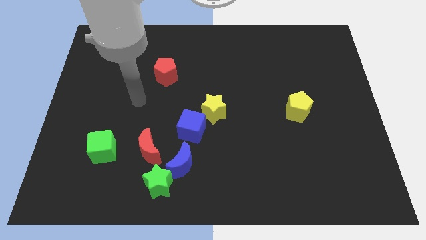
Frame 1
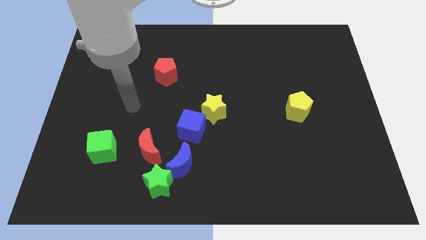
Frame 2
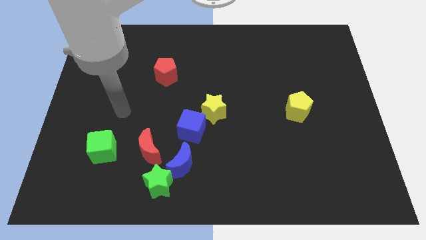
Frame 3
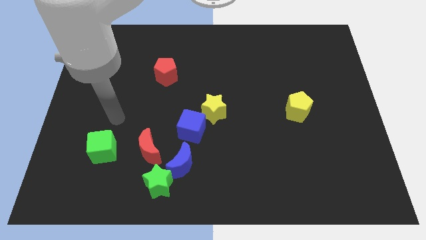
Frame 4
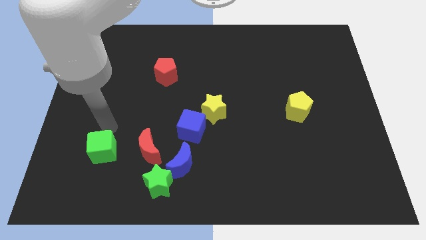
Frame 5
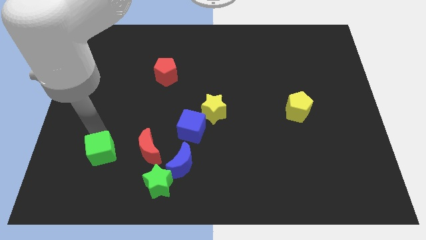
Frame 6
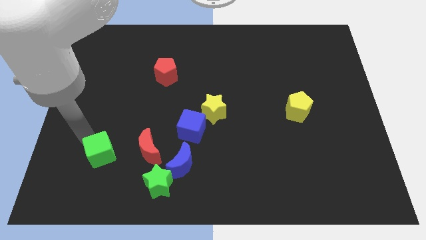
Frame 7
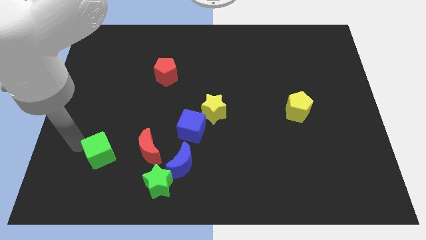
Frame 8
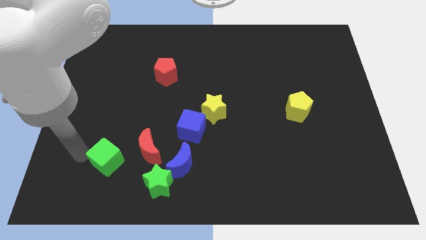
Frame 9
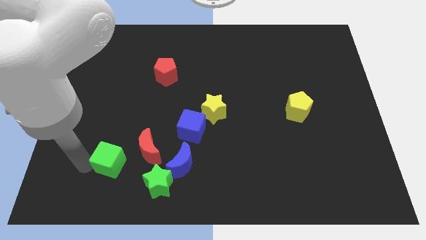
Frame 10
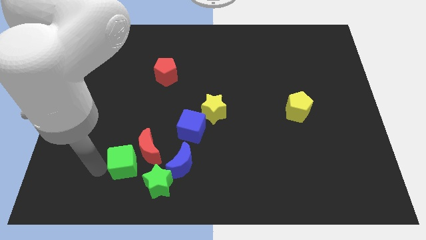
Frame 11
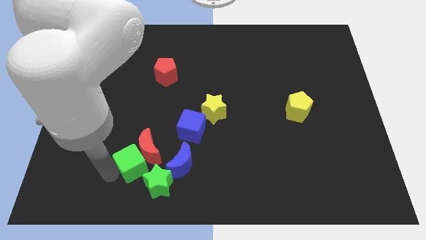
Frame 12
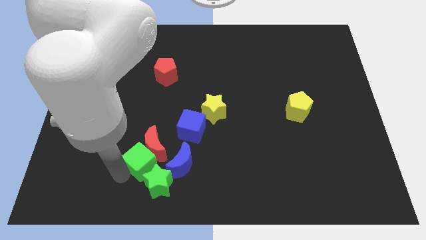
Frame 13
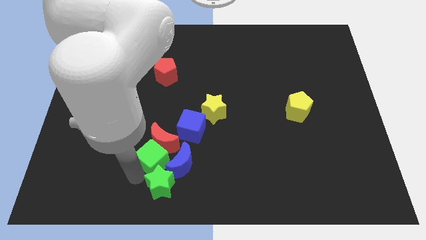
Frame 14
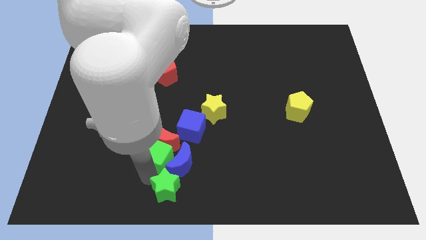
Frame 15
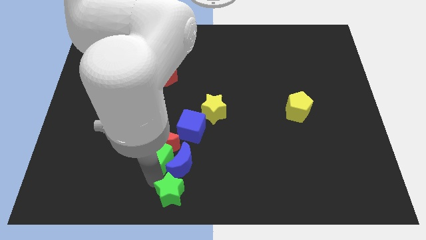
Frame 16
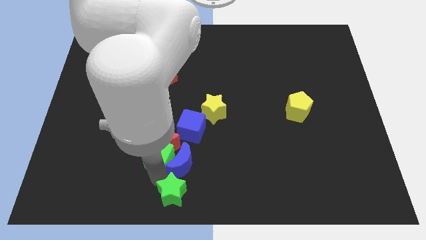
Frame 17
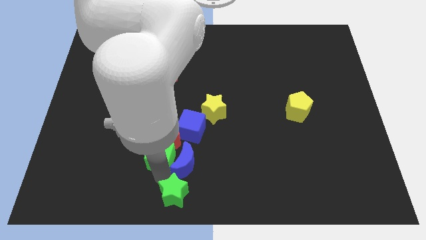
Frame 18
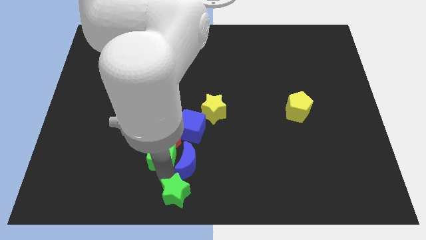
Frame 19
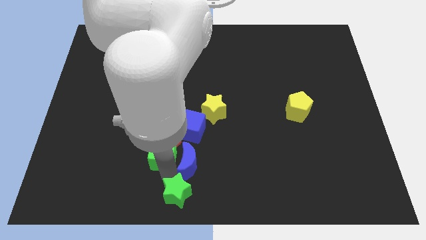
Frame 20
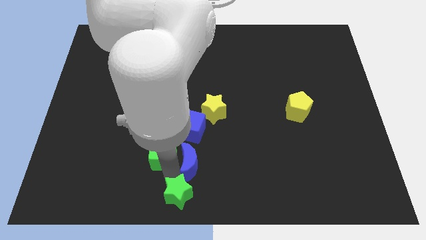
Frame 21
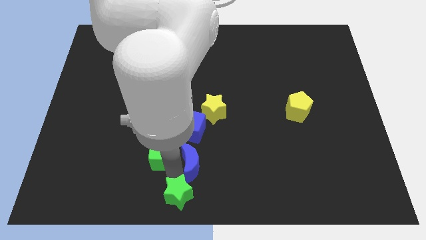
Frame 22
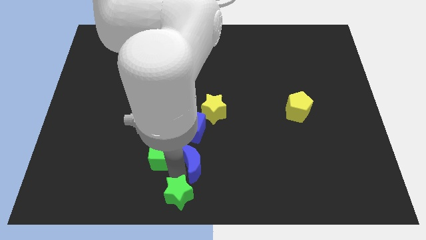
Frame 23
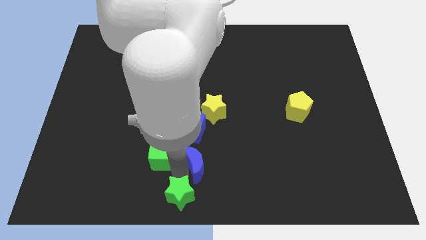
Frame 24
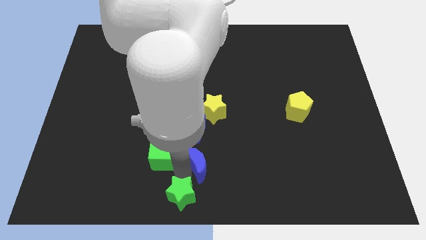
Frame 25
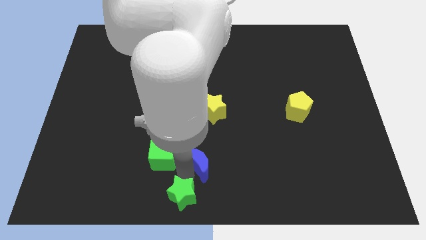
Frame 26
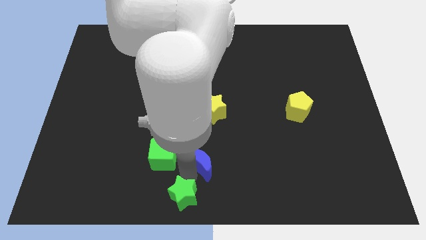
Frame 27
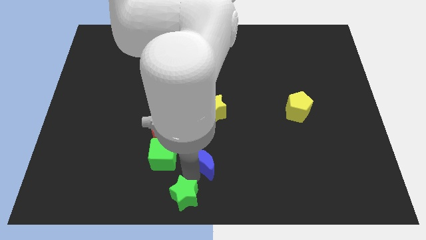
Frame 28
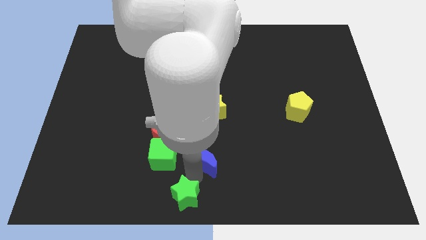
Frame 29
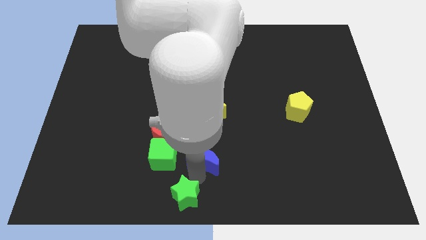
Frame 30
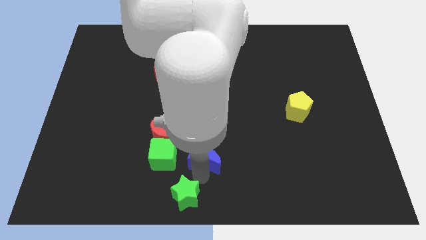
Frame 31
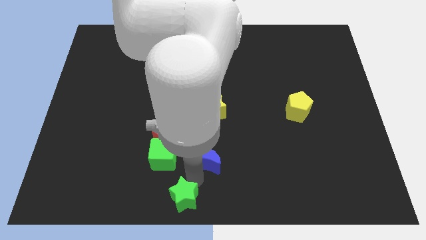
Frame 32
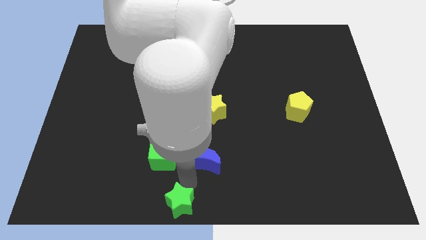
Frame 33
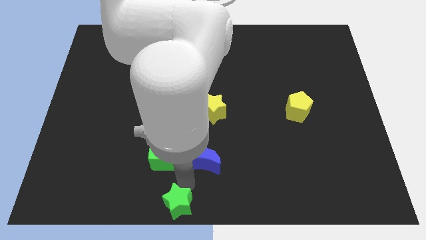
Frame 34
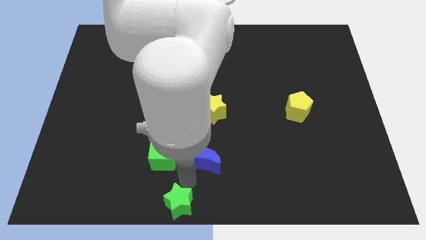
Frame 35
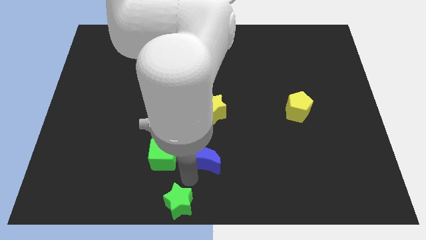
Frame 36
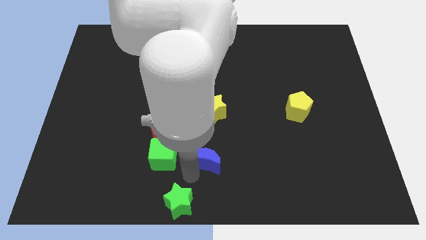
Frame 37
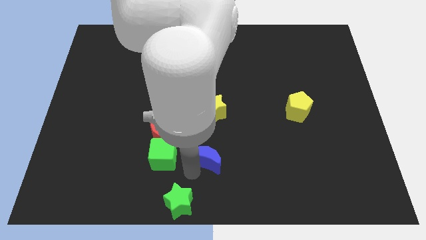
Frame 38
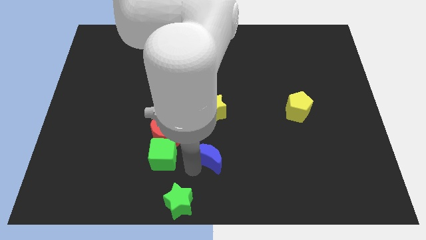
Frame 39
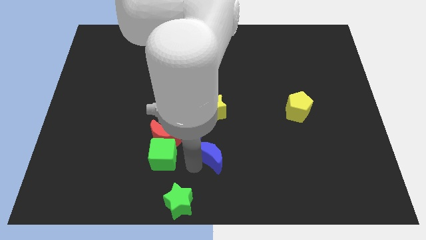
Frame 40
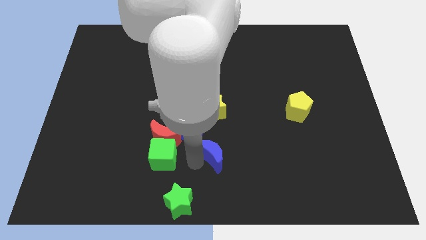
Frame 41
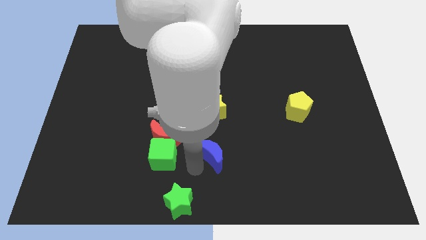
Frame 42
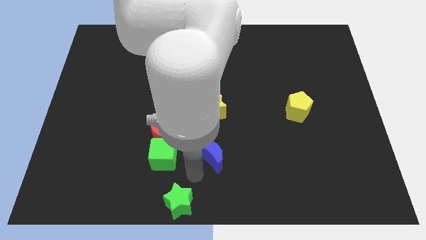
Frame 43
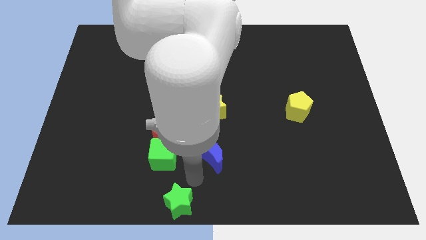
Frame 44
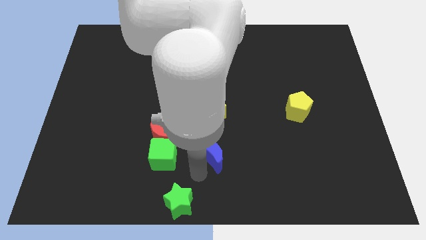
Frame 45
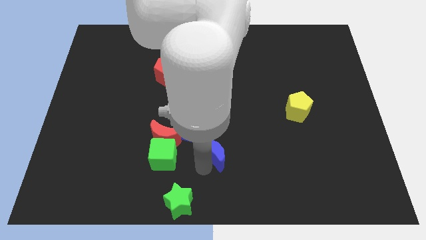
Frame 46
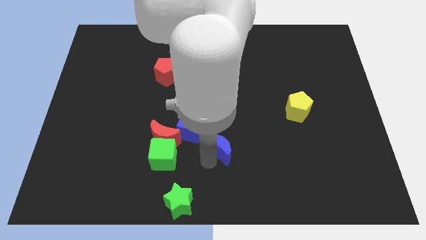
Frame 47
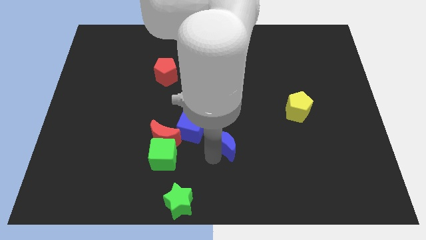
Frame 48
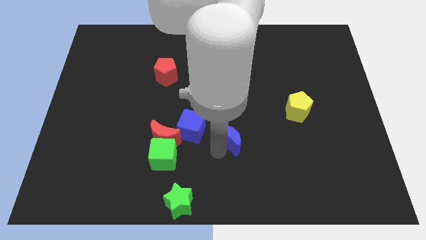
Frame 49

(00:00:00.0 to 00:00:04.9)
move the blue moon to the bottom right of the yellow star

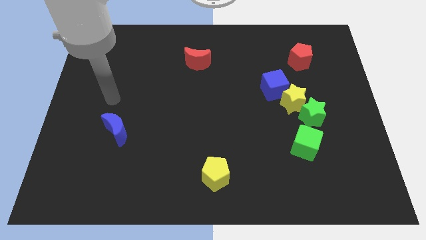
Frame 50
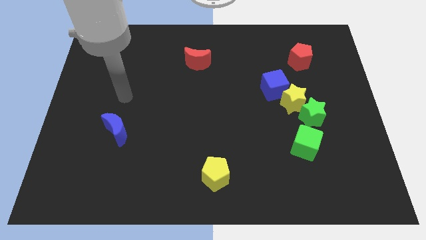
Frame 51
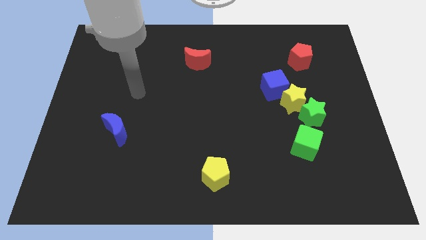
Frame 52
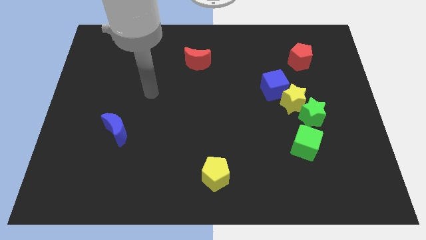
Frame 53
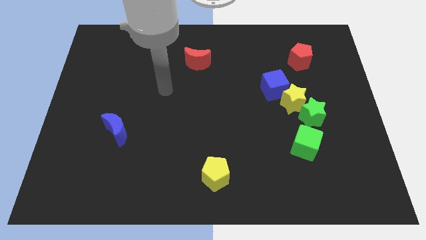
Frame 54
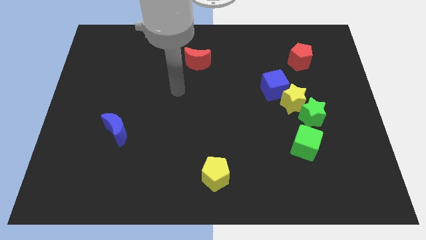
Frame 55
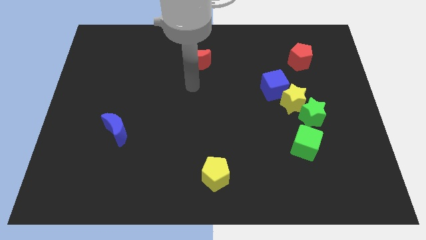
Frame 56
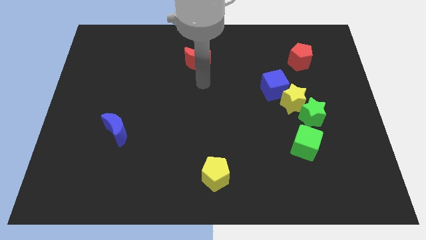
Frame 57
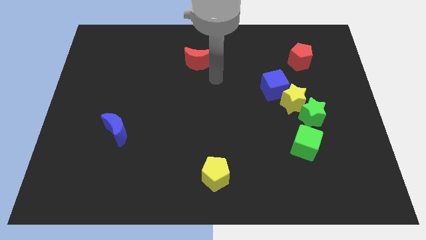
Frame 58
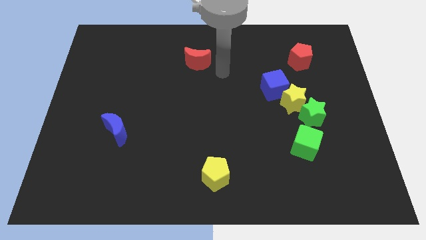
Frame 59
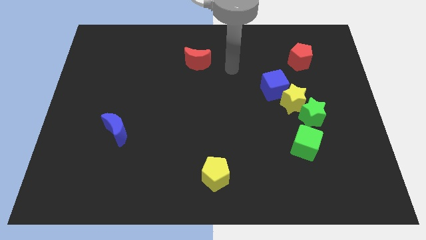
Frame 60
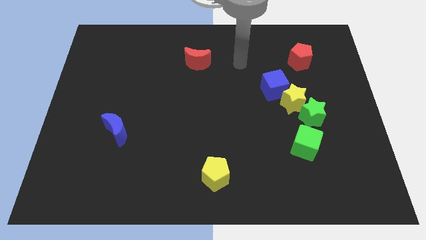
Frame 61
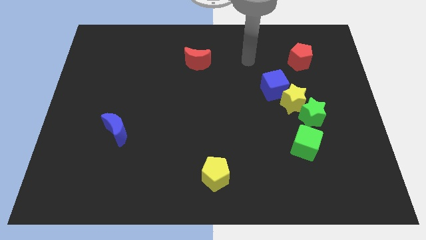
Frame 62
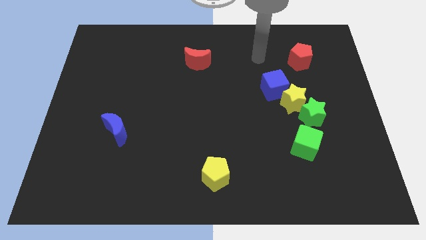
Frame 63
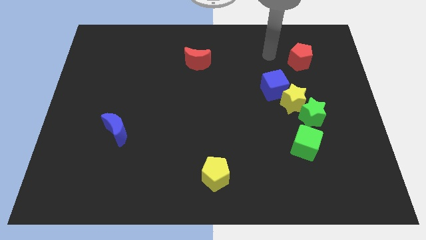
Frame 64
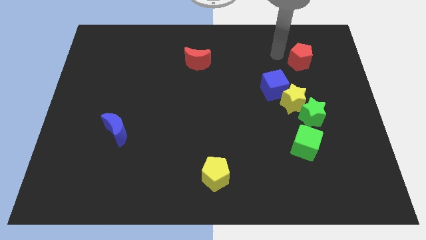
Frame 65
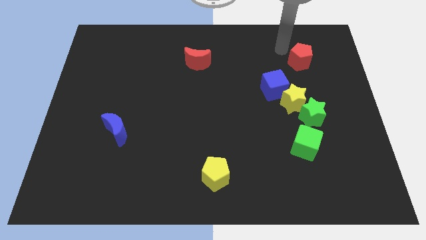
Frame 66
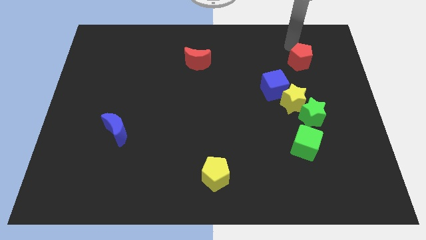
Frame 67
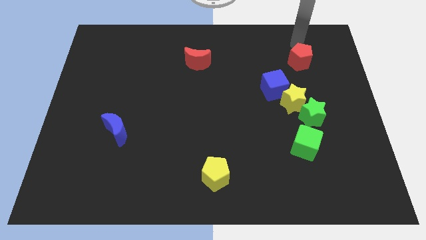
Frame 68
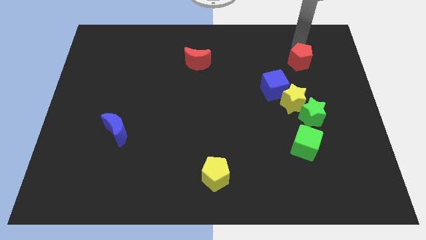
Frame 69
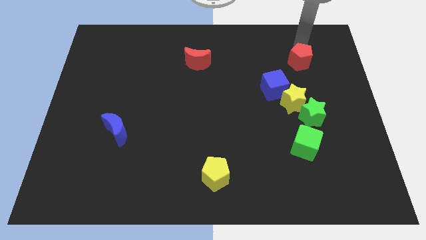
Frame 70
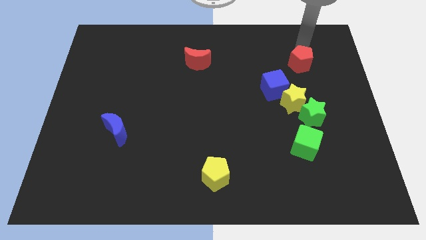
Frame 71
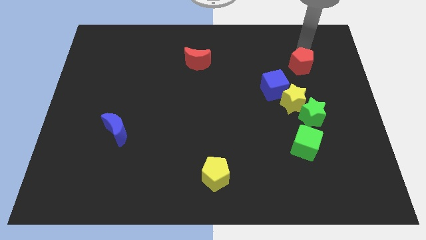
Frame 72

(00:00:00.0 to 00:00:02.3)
slide the red pentagon to the top side of the green star

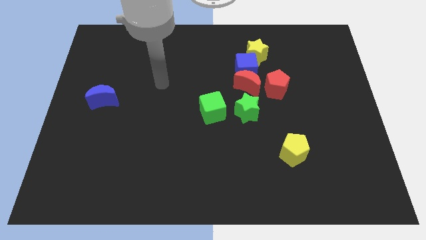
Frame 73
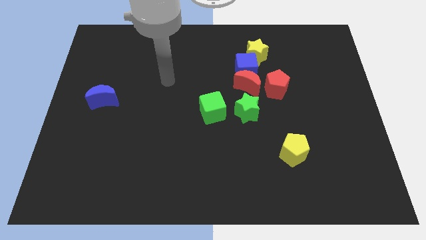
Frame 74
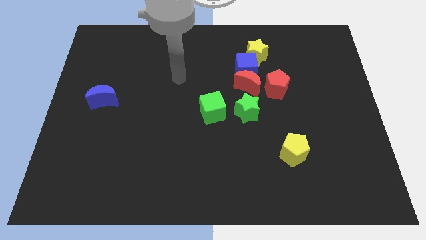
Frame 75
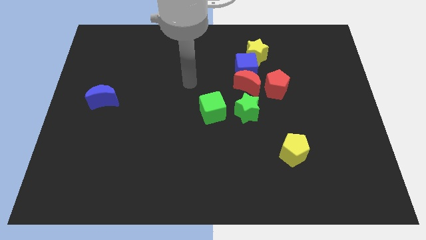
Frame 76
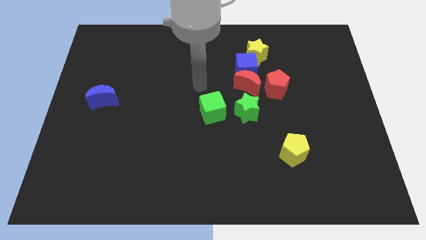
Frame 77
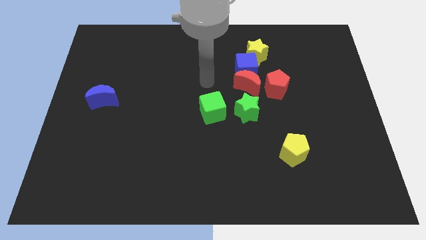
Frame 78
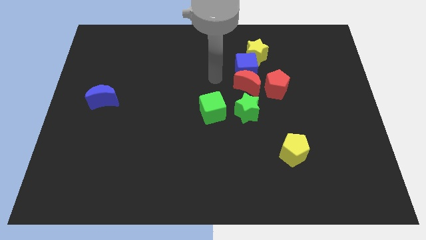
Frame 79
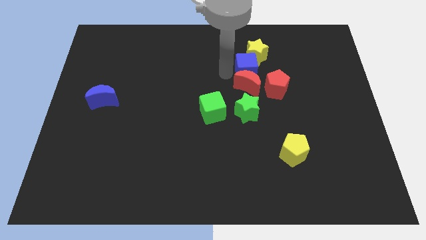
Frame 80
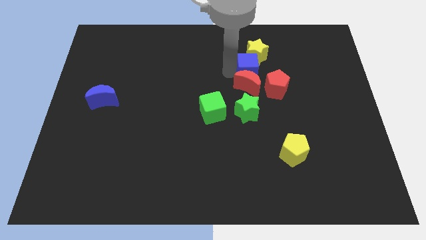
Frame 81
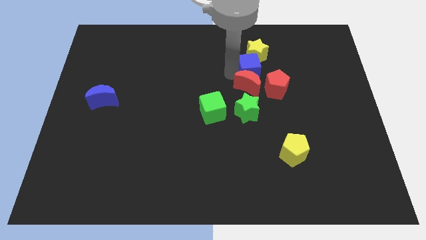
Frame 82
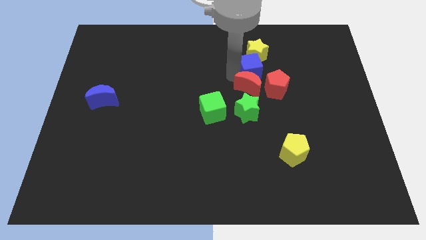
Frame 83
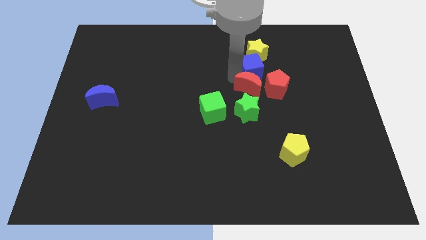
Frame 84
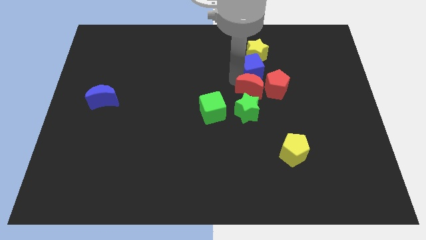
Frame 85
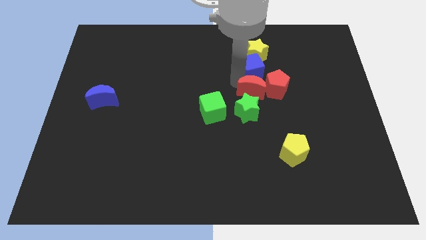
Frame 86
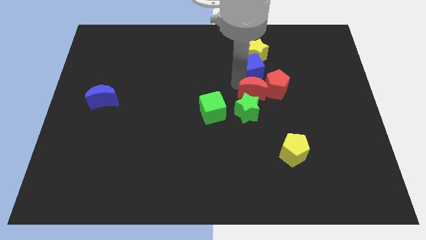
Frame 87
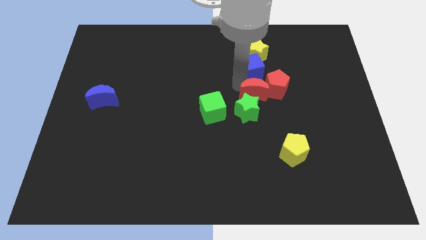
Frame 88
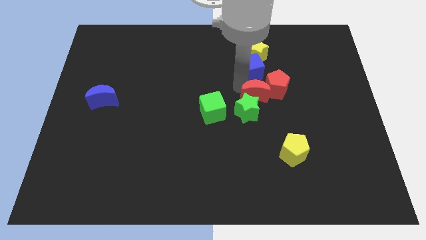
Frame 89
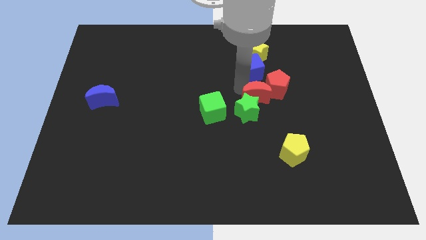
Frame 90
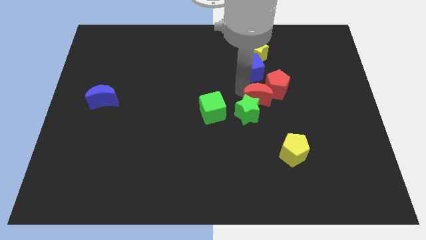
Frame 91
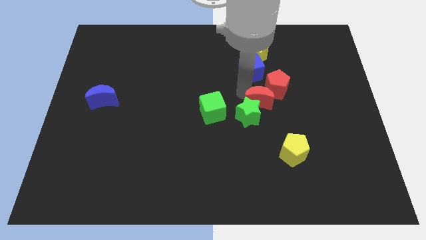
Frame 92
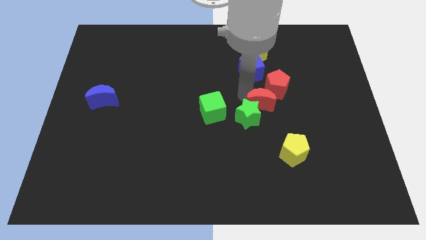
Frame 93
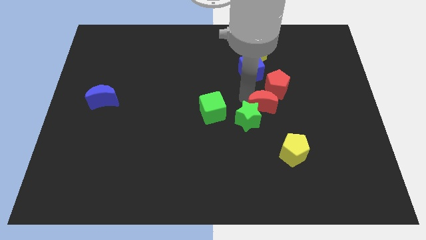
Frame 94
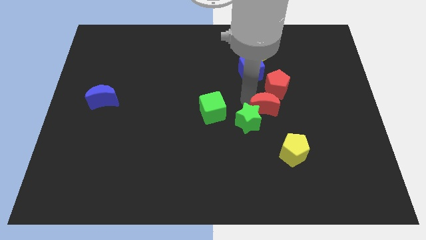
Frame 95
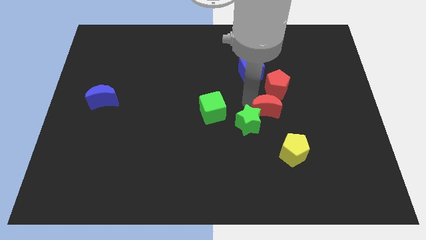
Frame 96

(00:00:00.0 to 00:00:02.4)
put the red moon to the top of the yellow pentagon
